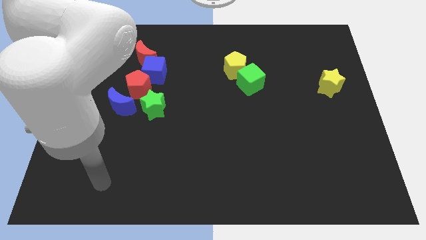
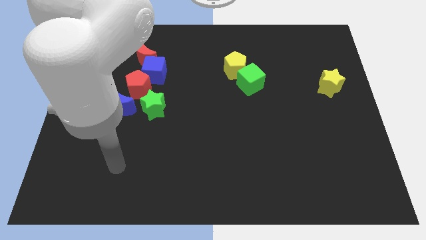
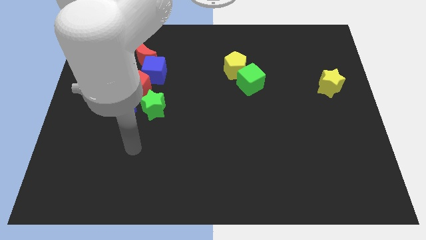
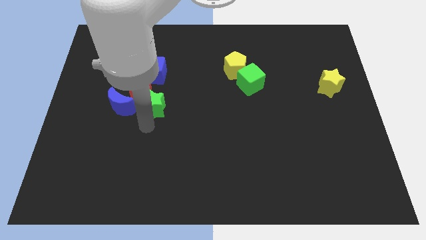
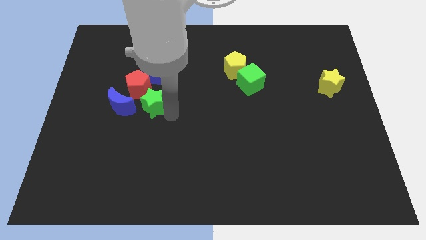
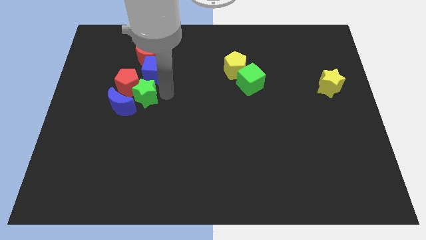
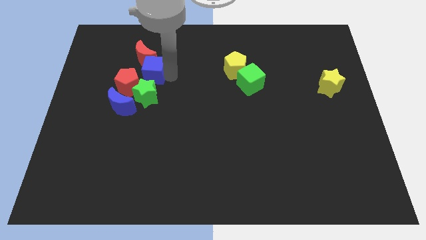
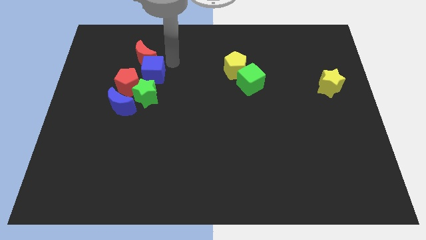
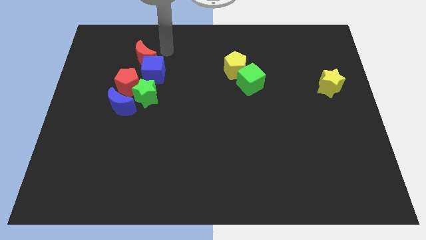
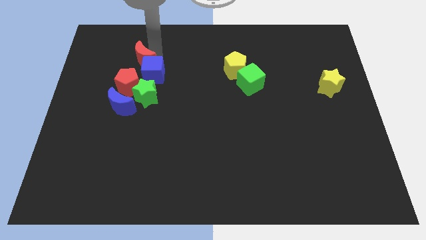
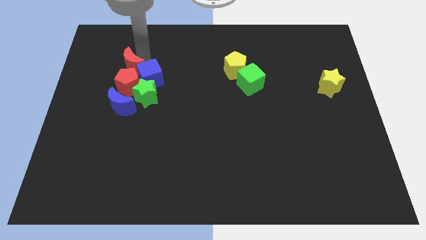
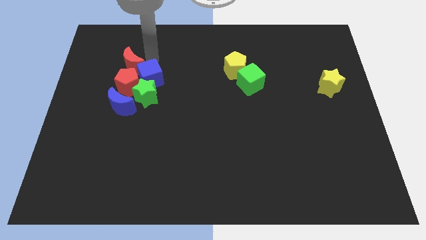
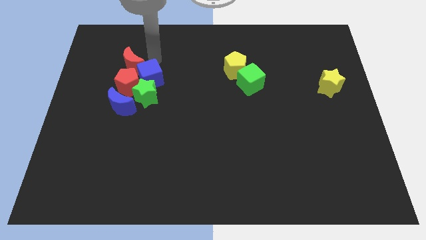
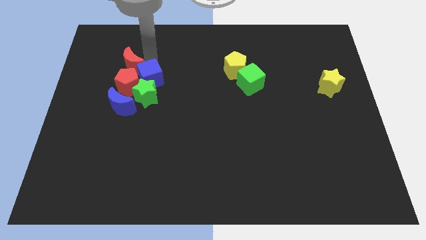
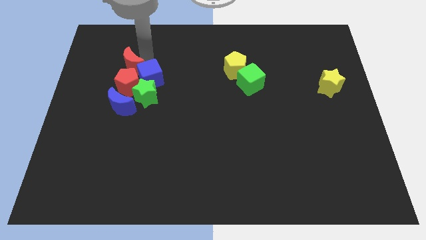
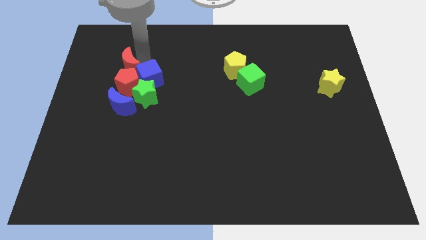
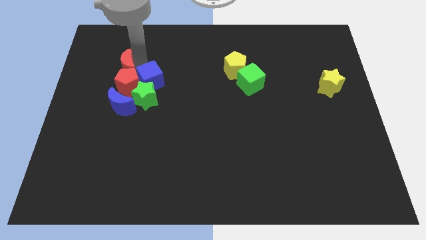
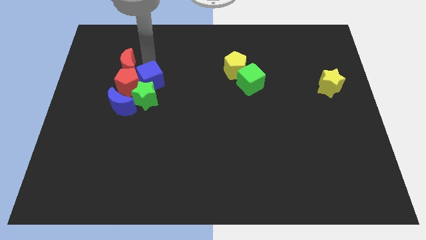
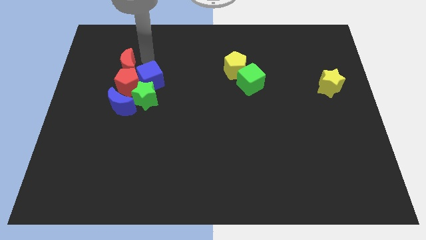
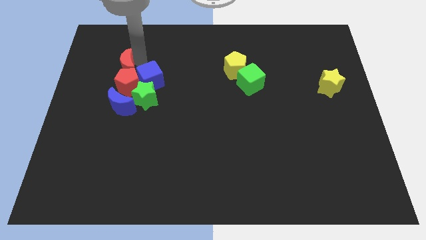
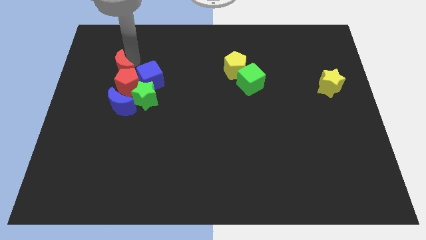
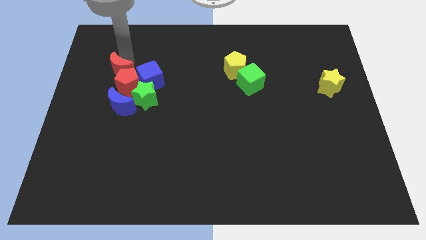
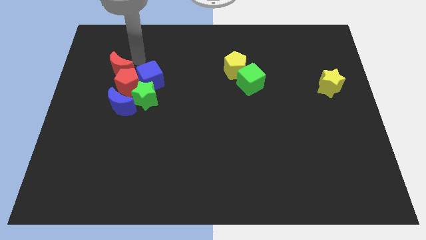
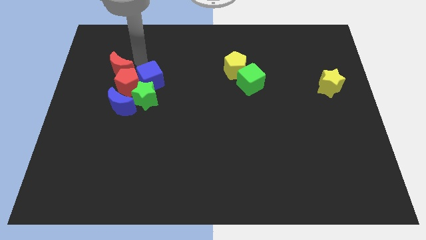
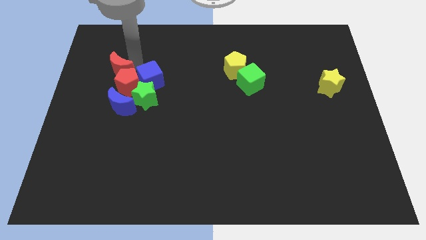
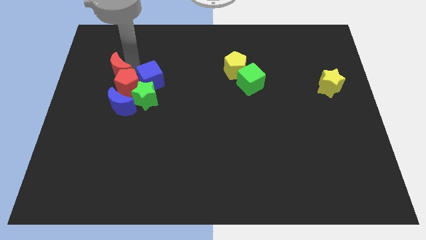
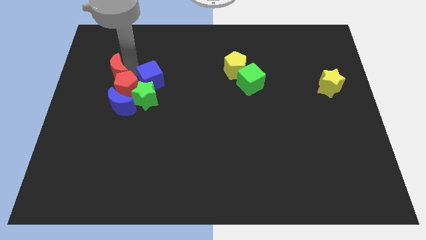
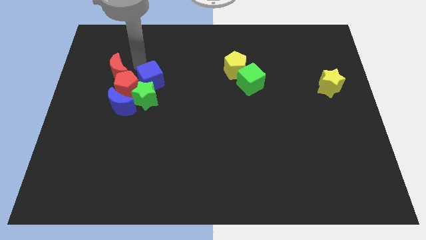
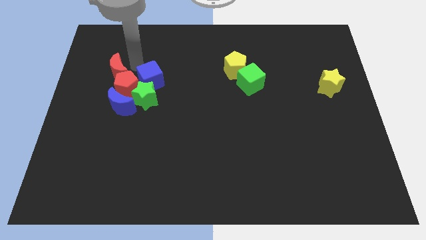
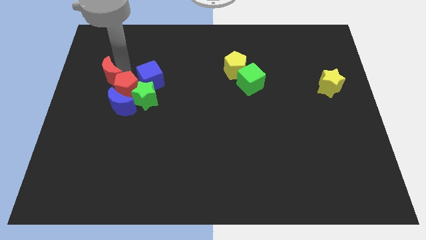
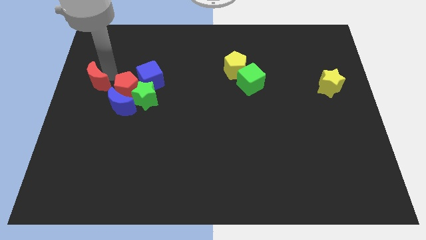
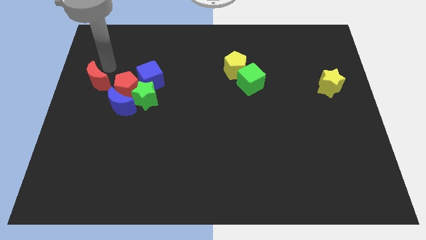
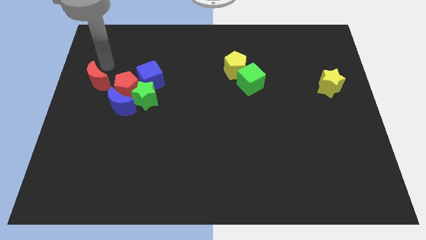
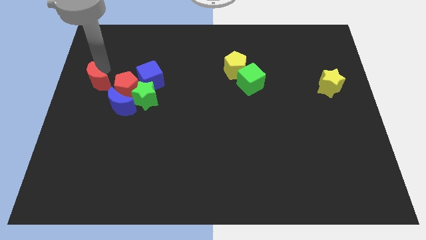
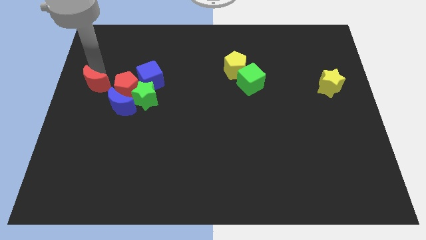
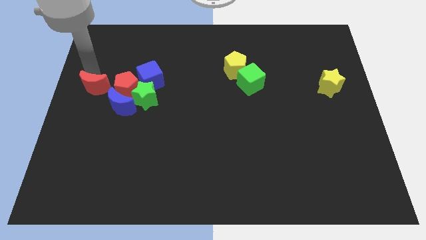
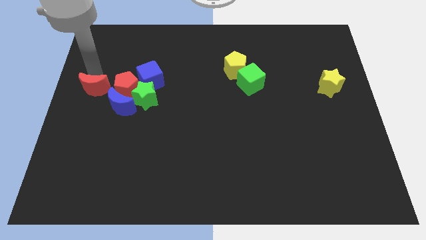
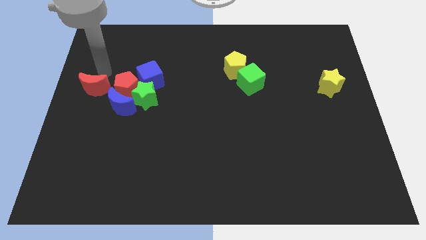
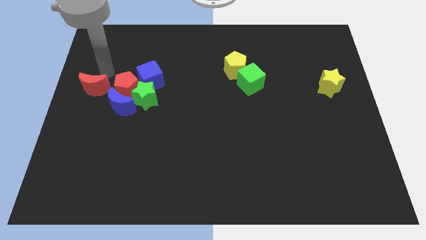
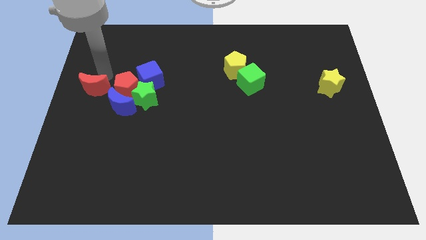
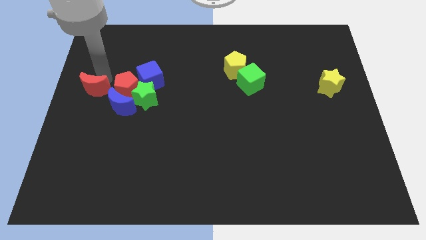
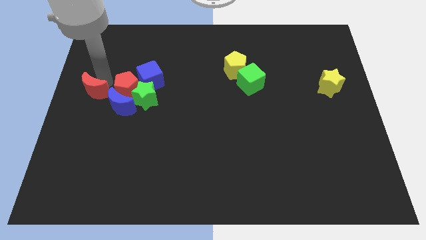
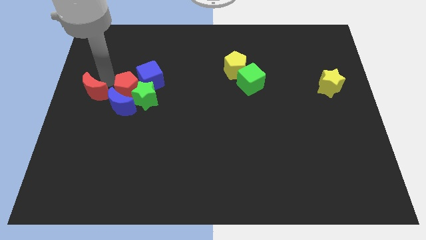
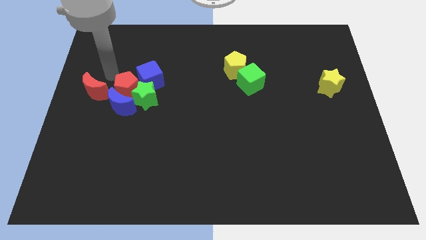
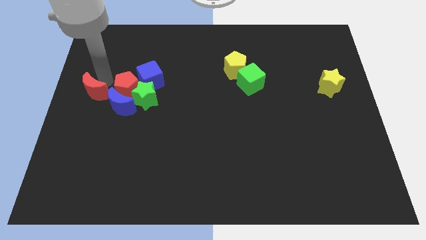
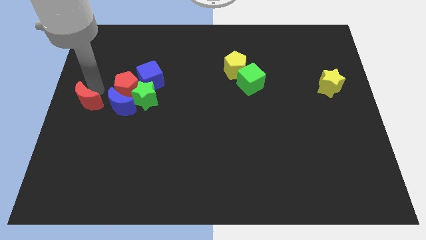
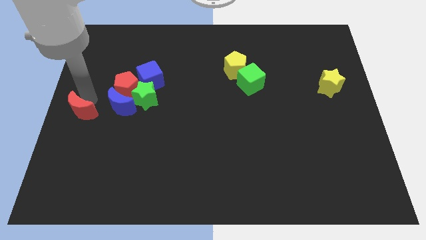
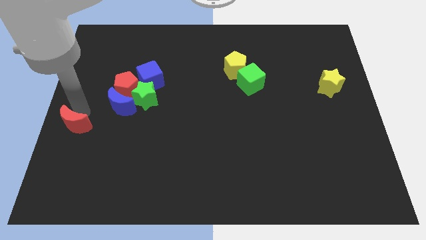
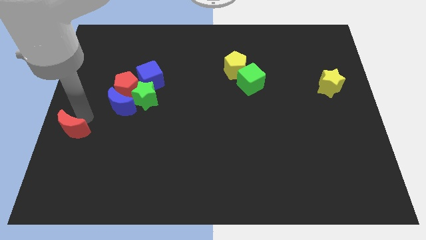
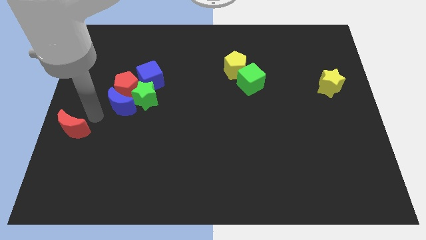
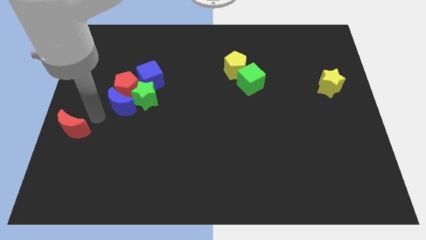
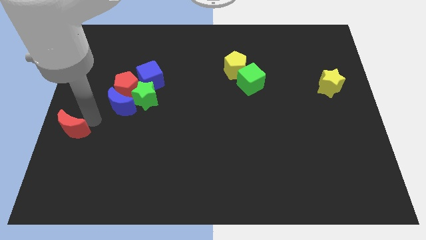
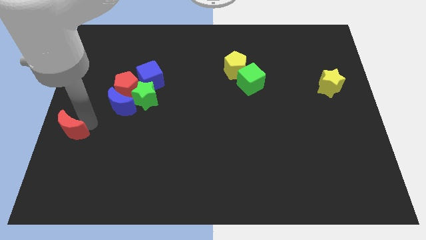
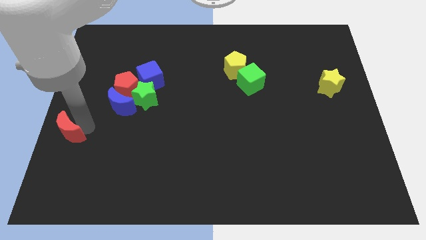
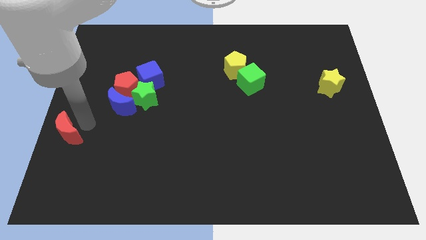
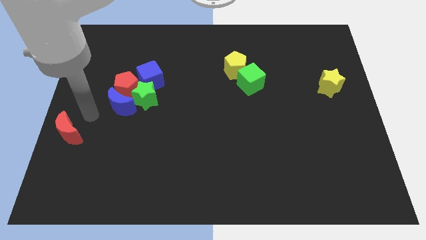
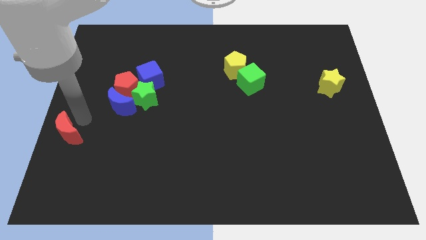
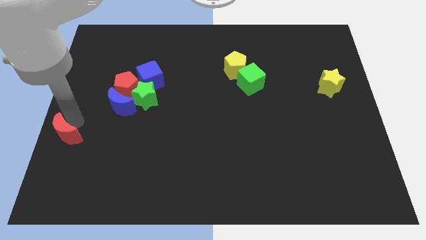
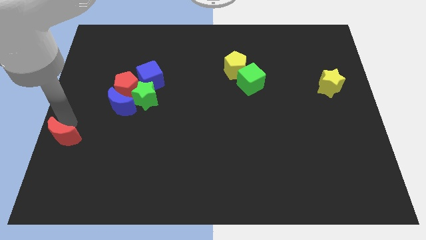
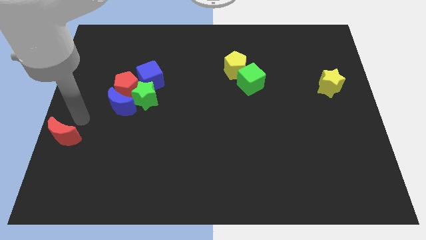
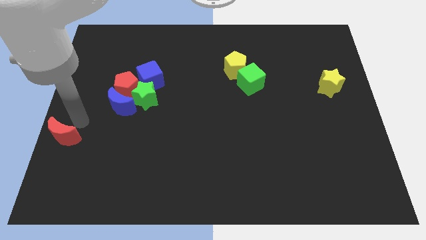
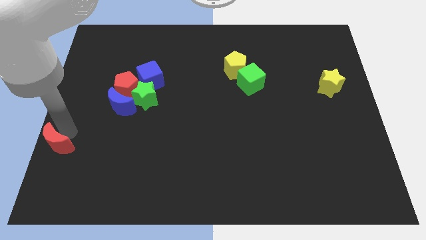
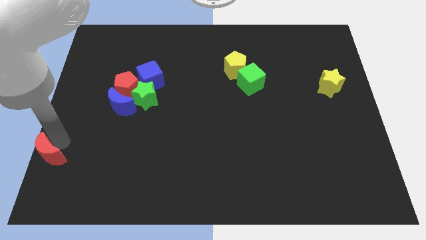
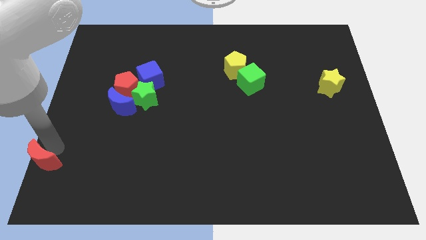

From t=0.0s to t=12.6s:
push the red moon to the bottom left of the board

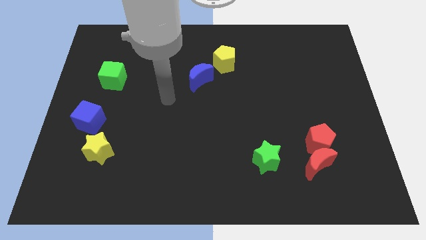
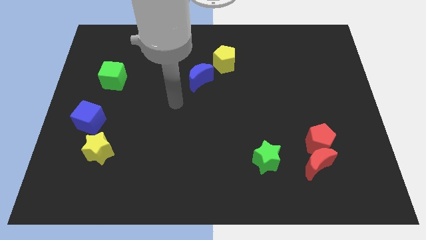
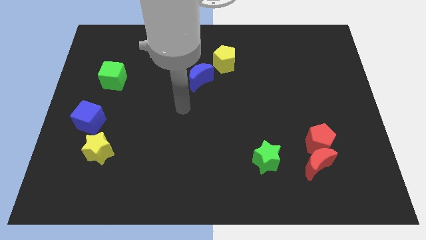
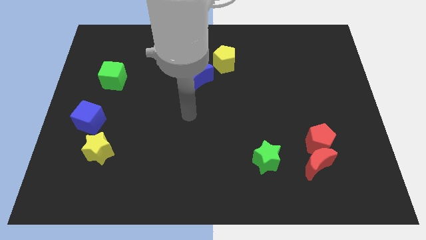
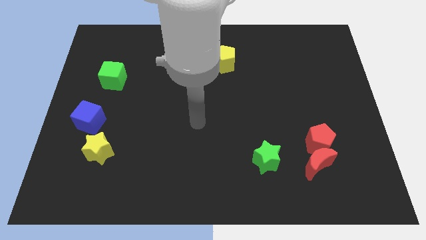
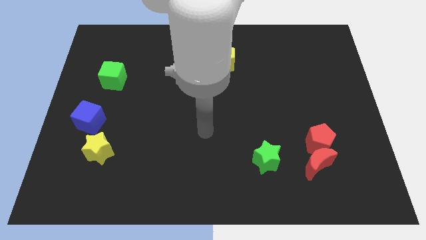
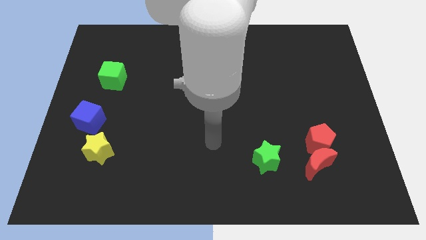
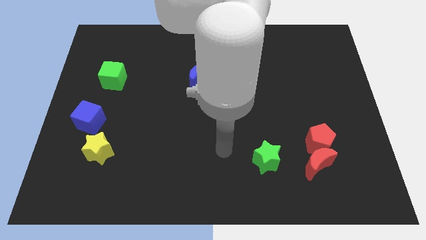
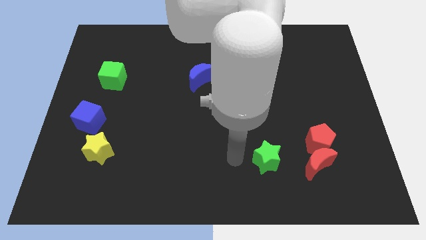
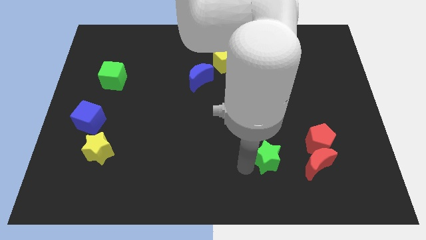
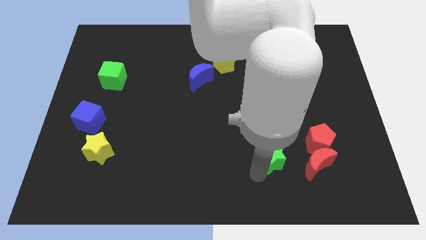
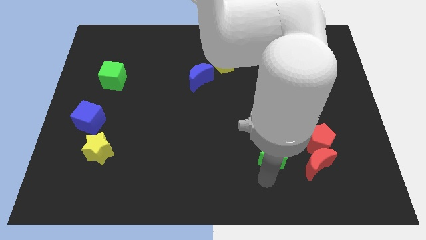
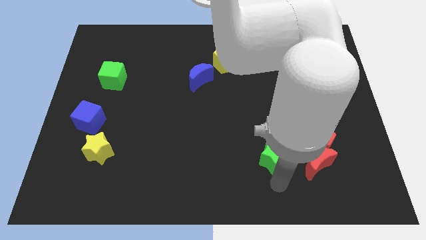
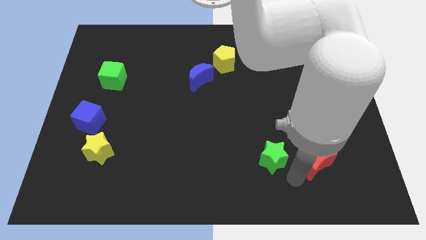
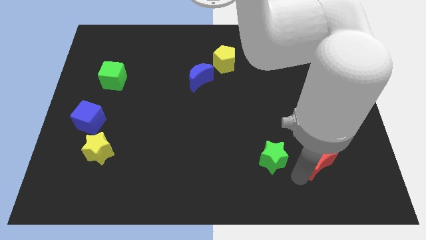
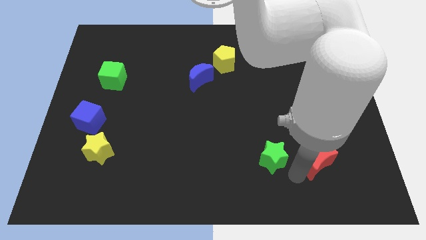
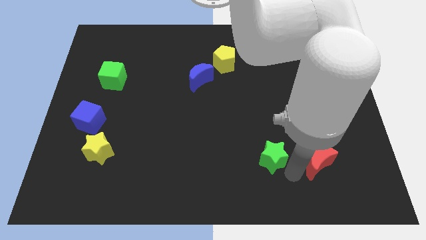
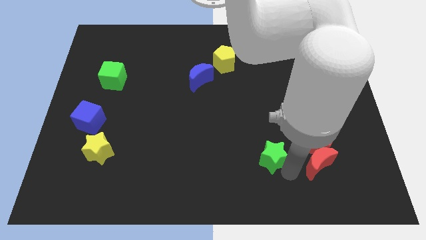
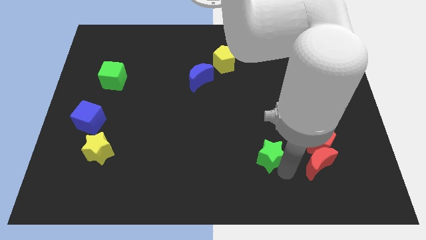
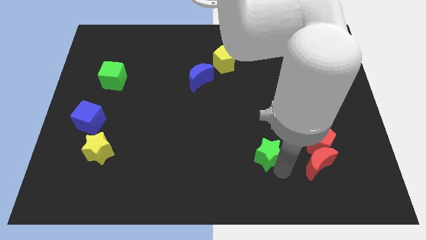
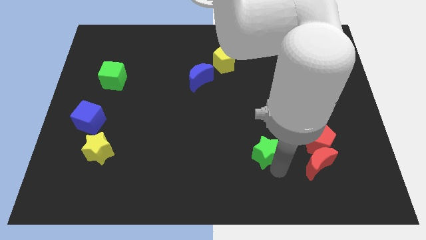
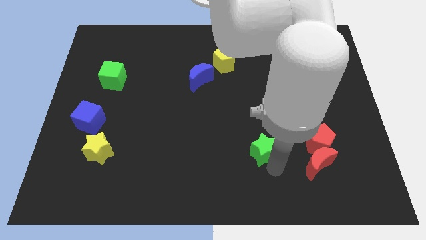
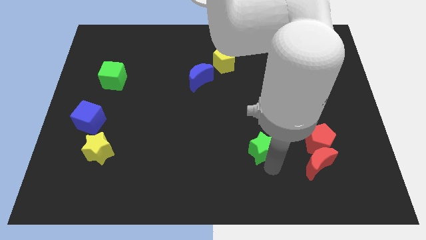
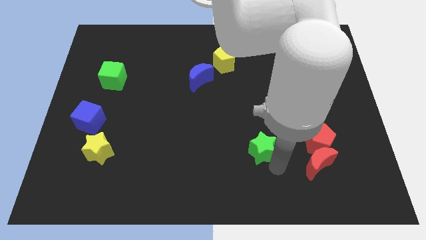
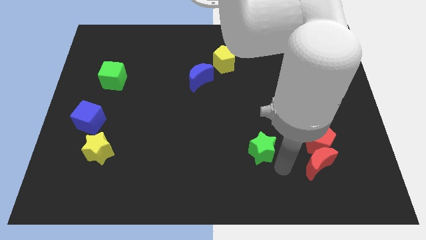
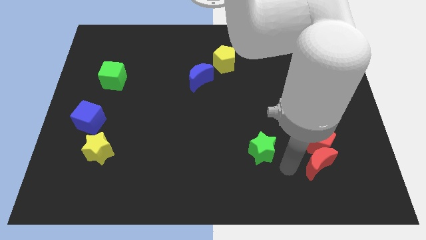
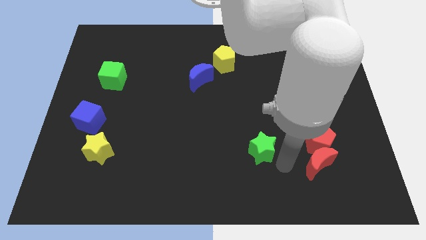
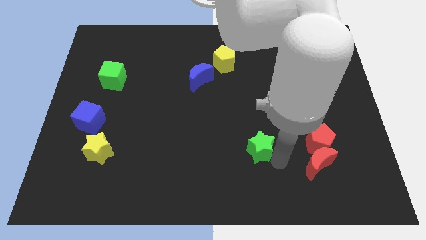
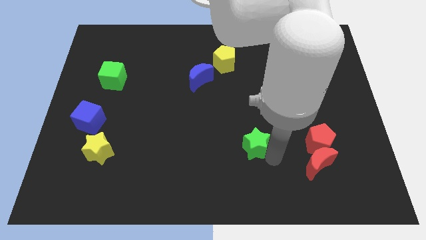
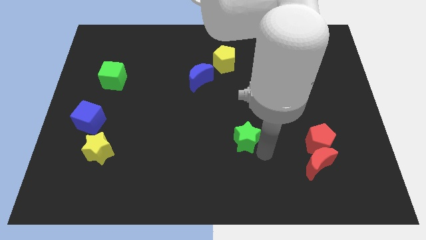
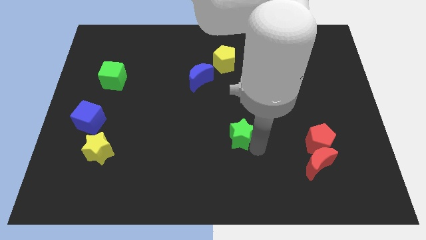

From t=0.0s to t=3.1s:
move the green star to the middle of the board
